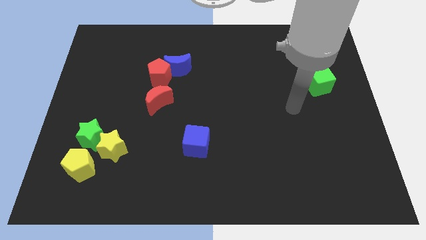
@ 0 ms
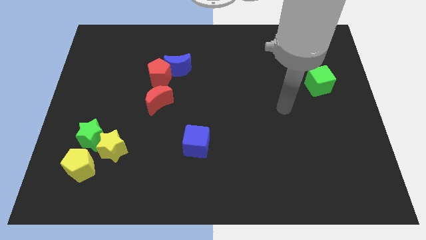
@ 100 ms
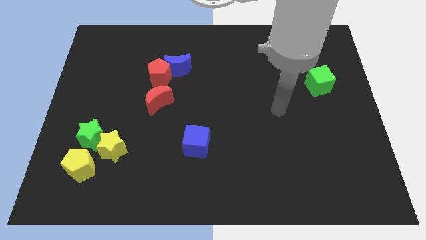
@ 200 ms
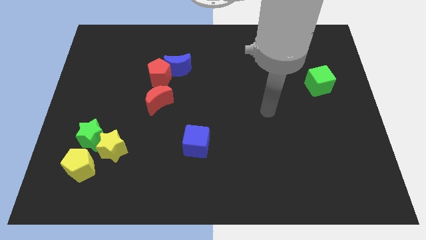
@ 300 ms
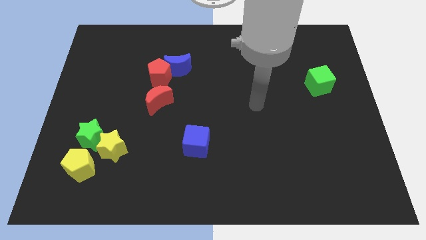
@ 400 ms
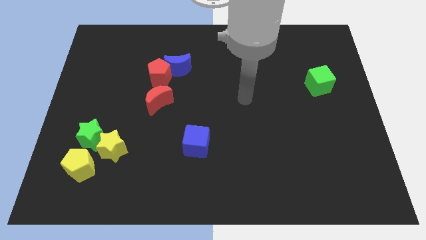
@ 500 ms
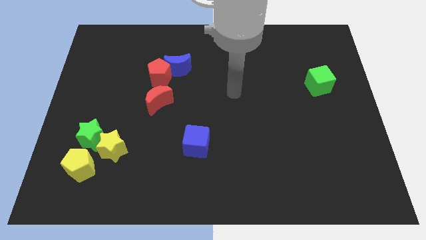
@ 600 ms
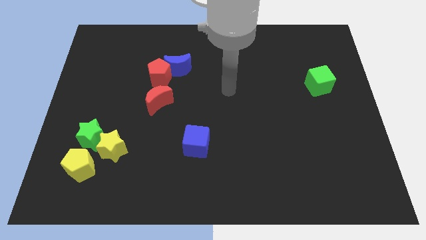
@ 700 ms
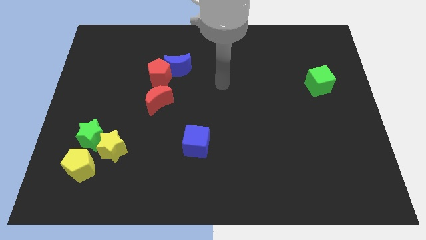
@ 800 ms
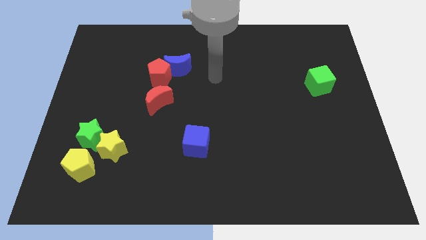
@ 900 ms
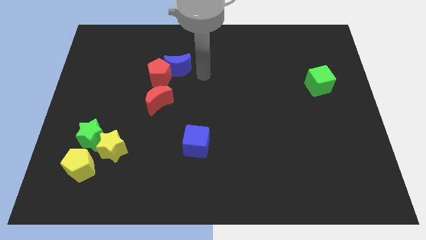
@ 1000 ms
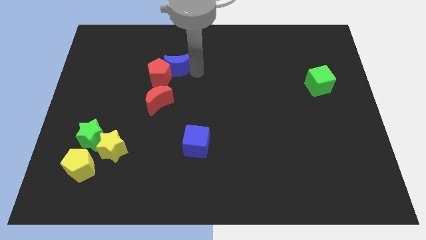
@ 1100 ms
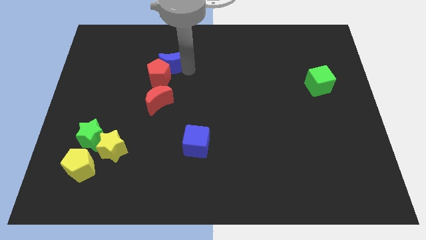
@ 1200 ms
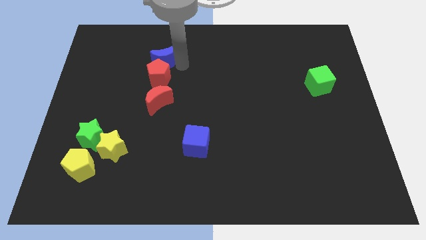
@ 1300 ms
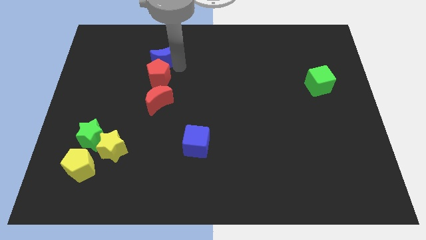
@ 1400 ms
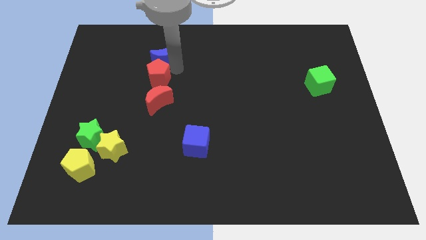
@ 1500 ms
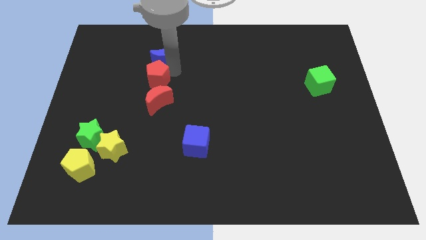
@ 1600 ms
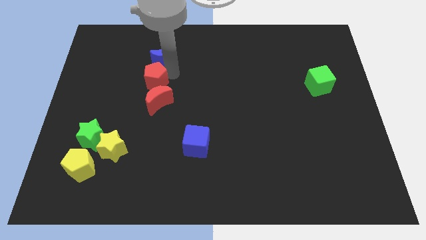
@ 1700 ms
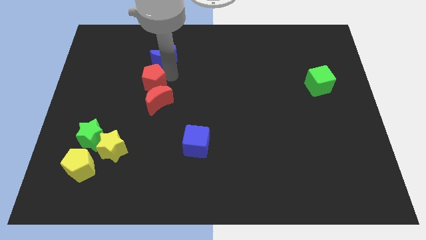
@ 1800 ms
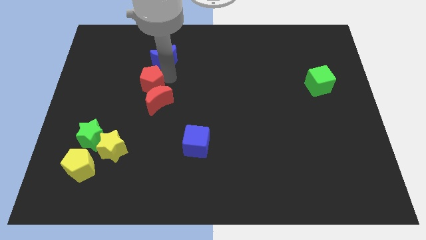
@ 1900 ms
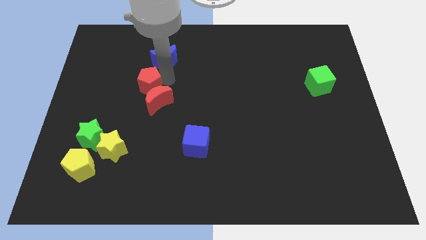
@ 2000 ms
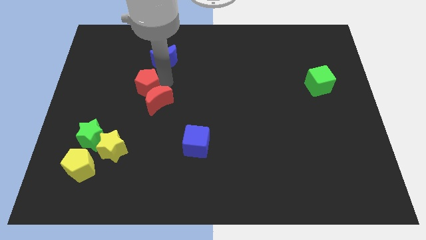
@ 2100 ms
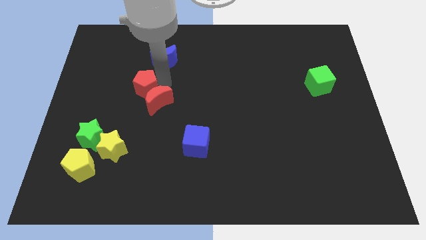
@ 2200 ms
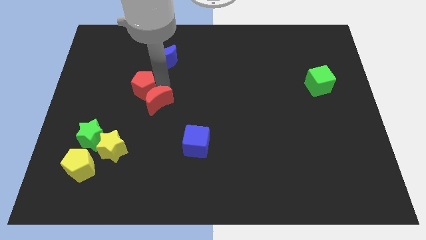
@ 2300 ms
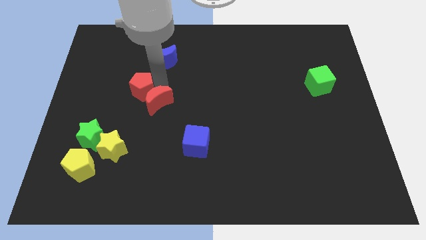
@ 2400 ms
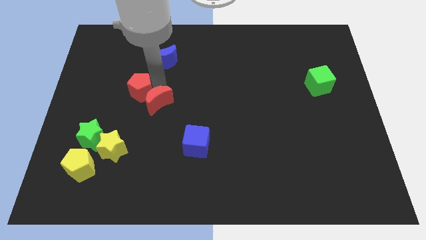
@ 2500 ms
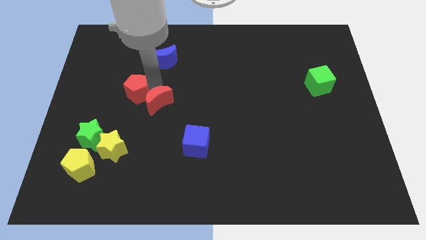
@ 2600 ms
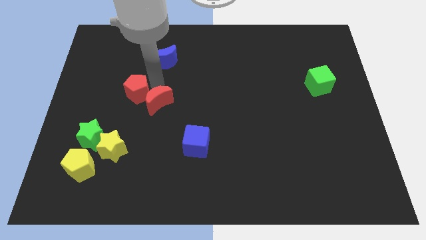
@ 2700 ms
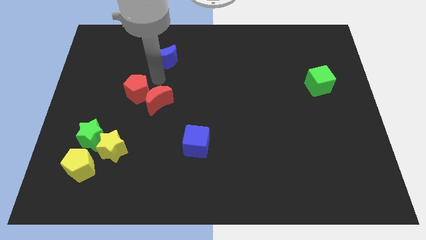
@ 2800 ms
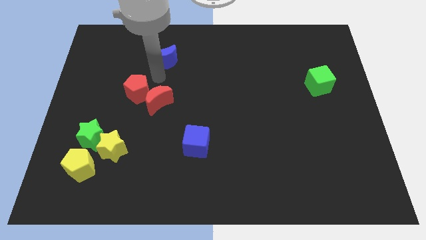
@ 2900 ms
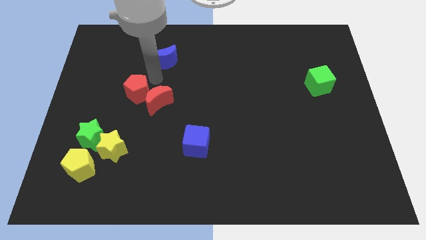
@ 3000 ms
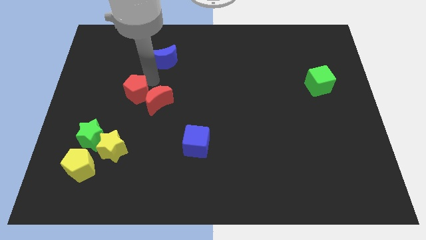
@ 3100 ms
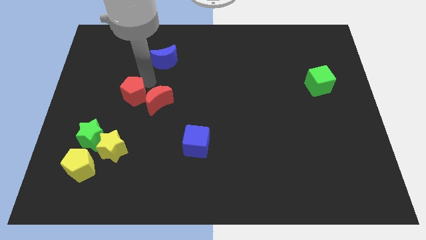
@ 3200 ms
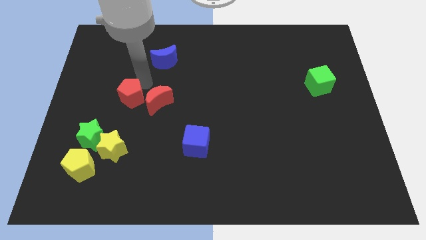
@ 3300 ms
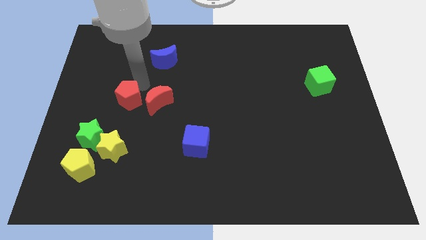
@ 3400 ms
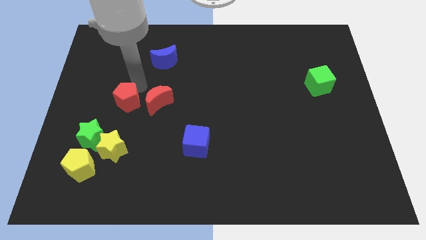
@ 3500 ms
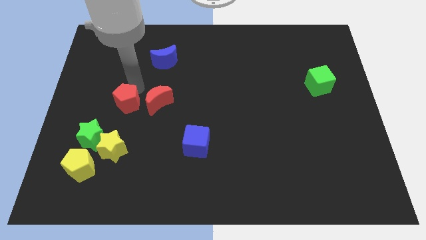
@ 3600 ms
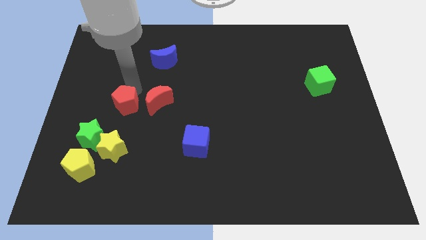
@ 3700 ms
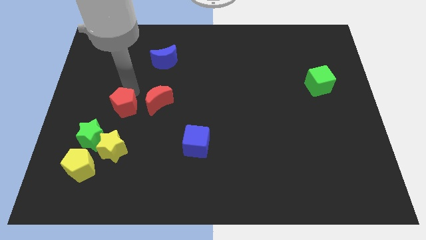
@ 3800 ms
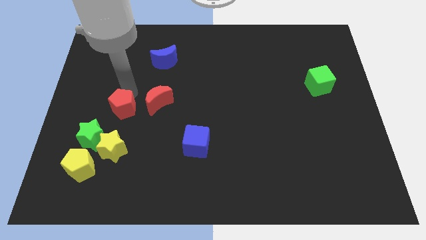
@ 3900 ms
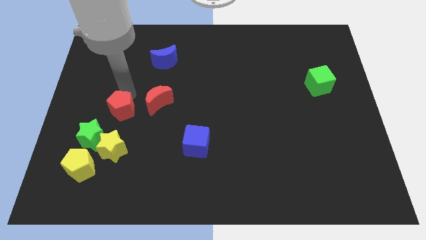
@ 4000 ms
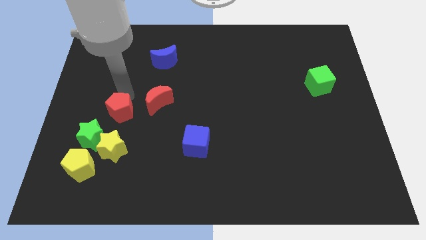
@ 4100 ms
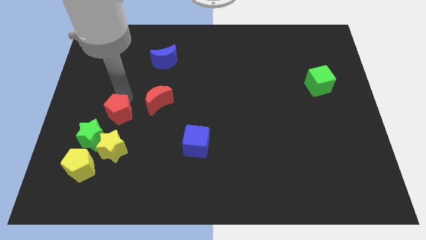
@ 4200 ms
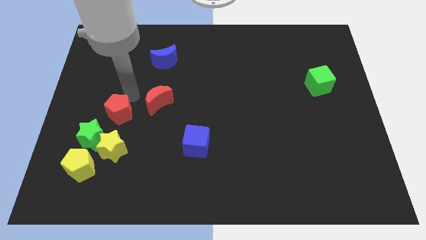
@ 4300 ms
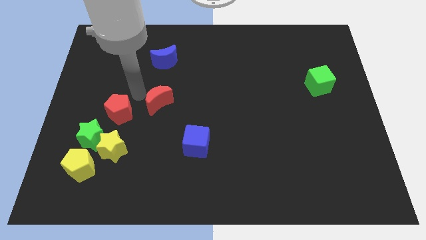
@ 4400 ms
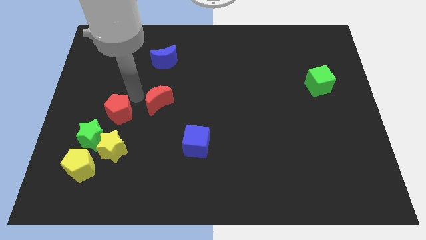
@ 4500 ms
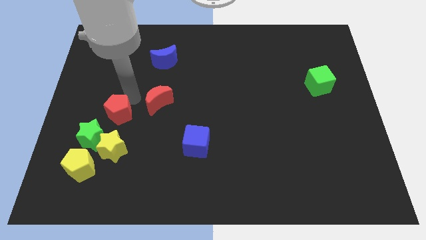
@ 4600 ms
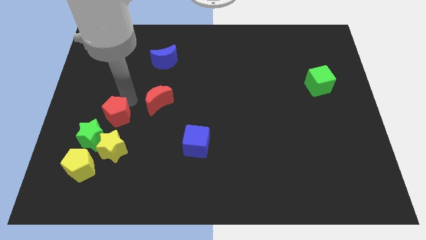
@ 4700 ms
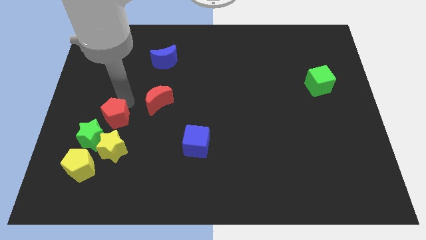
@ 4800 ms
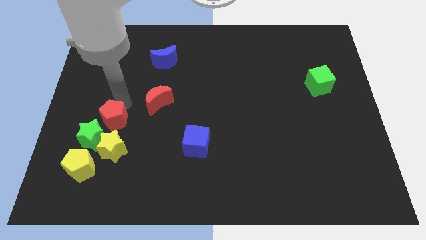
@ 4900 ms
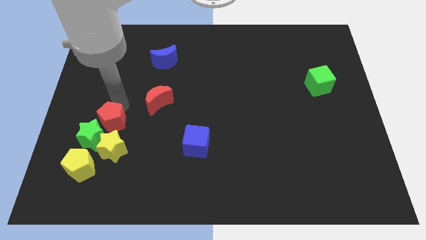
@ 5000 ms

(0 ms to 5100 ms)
slide the red pentagon towards the green star

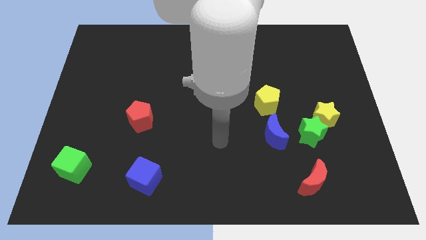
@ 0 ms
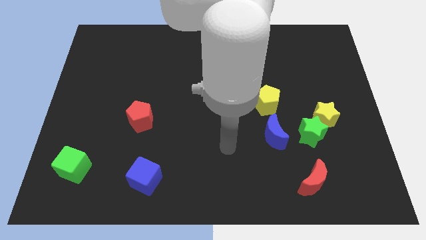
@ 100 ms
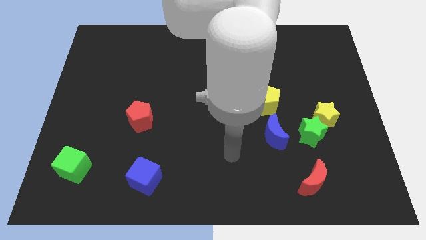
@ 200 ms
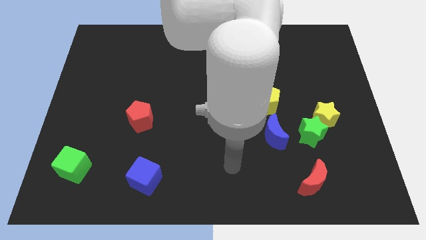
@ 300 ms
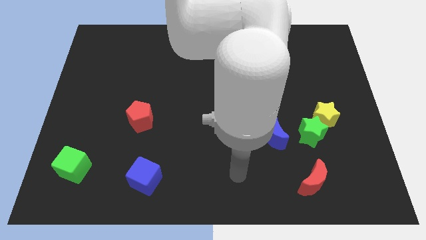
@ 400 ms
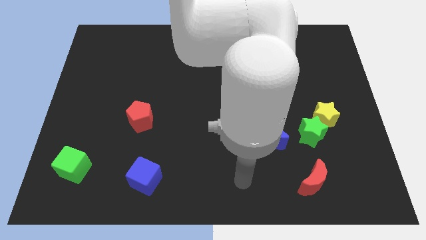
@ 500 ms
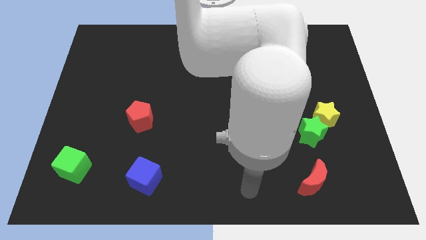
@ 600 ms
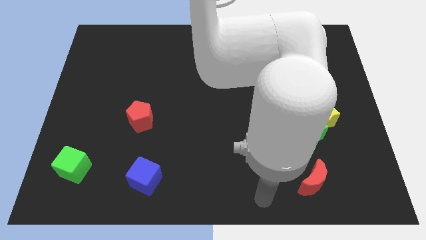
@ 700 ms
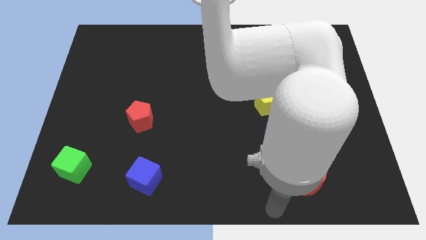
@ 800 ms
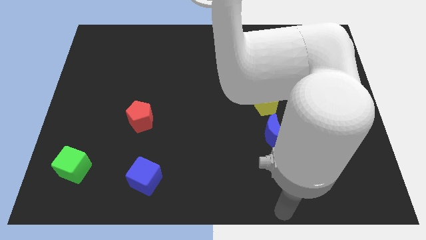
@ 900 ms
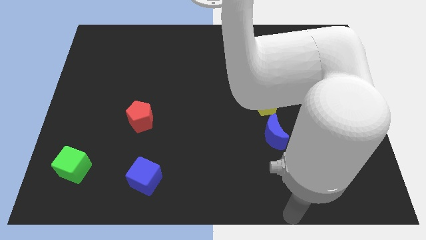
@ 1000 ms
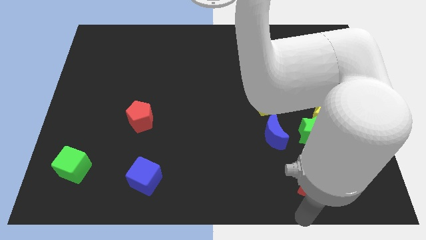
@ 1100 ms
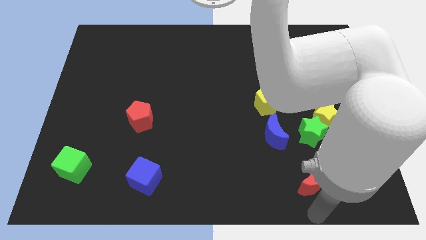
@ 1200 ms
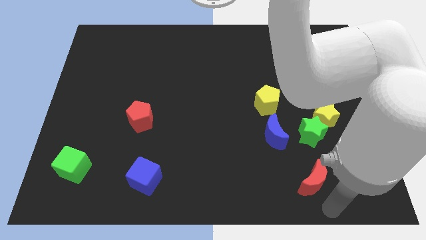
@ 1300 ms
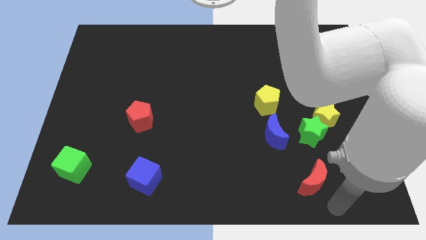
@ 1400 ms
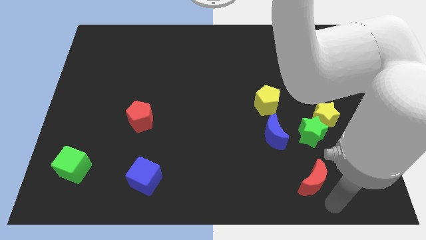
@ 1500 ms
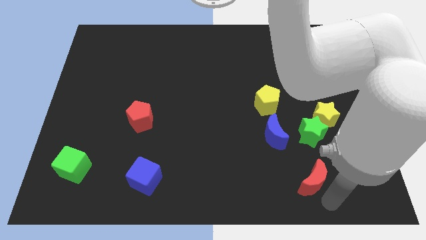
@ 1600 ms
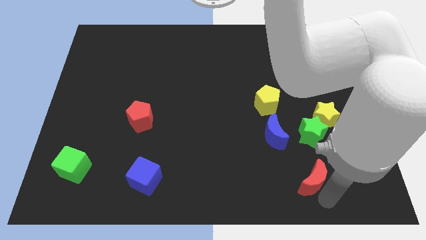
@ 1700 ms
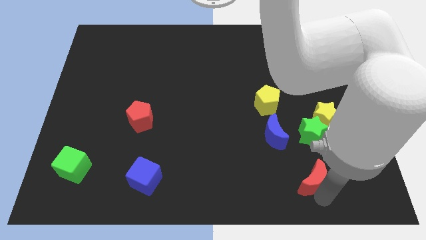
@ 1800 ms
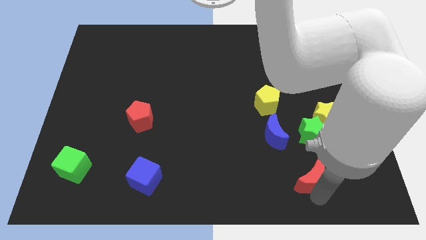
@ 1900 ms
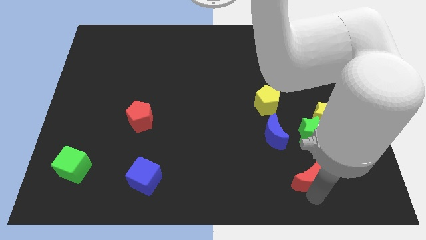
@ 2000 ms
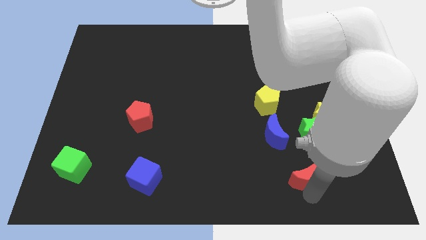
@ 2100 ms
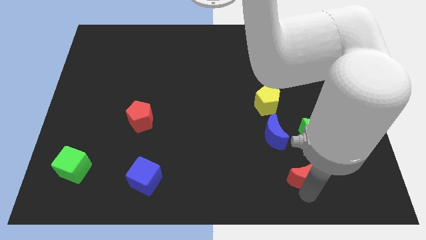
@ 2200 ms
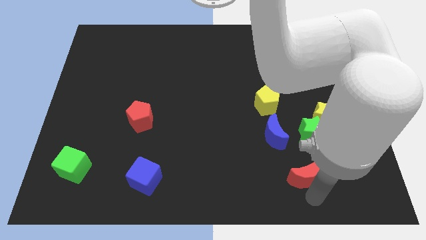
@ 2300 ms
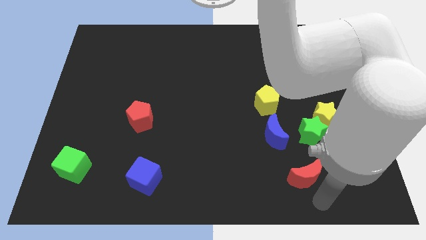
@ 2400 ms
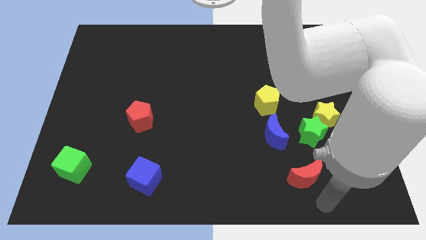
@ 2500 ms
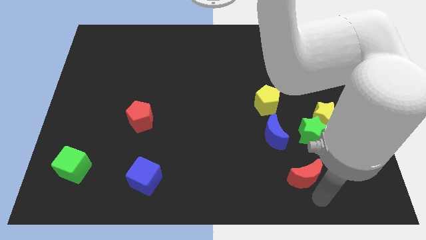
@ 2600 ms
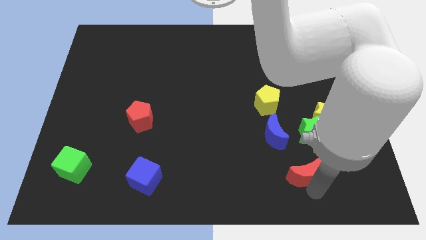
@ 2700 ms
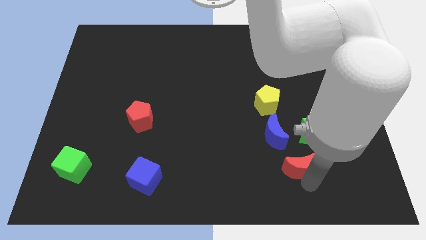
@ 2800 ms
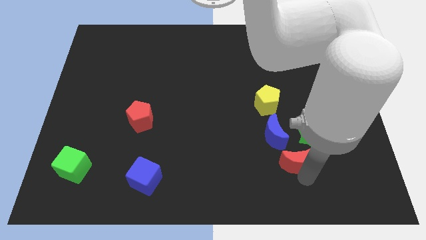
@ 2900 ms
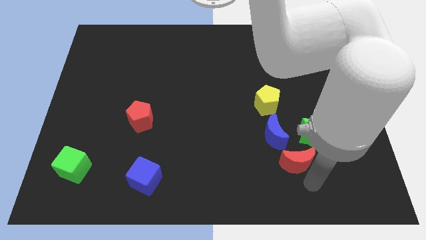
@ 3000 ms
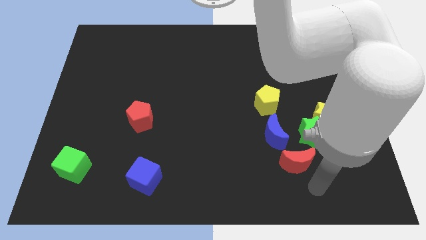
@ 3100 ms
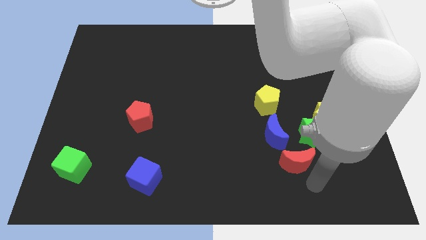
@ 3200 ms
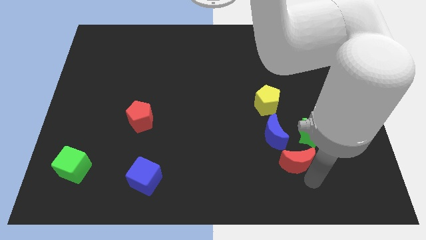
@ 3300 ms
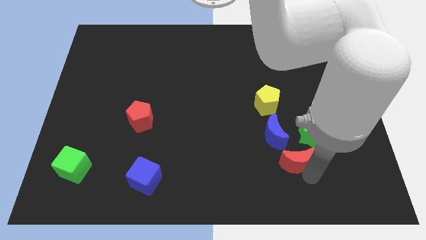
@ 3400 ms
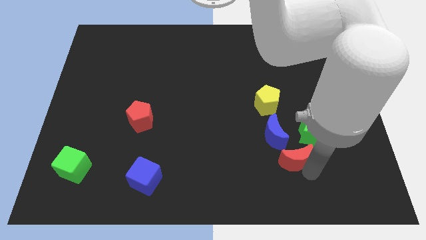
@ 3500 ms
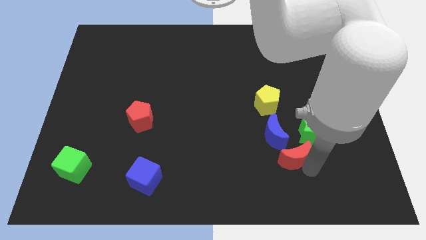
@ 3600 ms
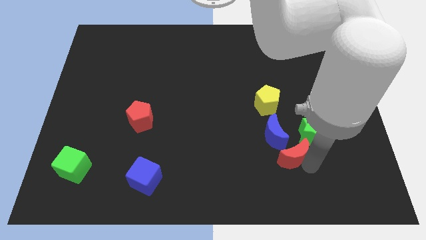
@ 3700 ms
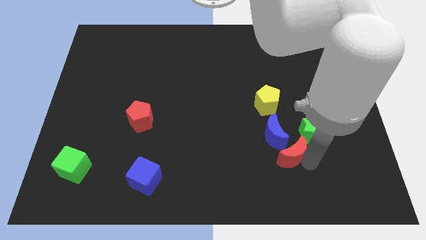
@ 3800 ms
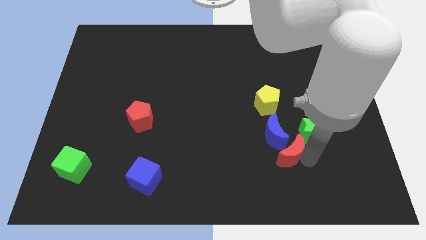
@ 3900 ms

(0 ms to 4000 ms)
slide the red moon towards the blue moon
